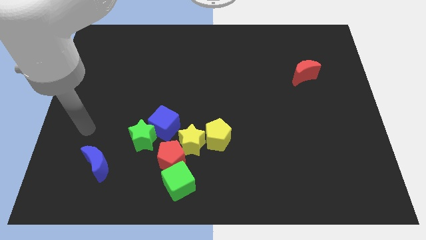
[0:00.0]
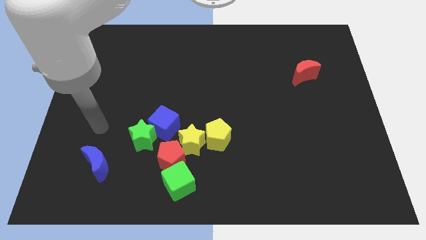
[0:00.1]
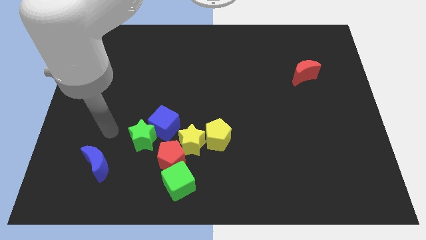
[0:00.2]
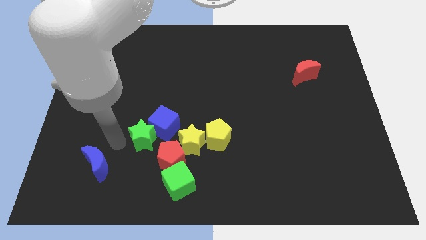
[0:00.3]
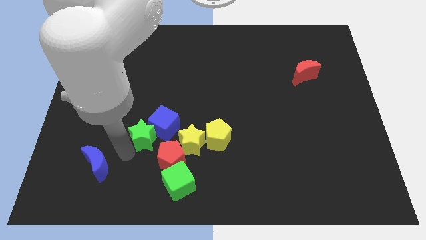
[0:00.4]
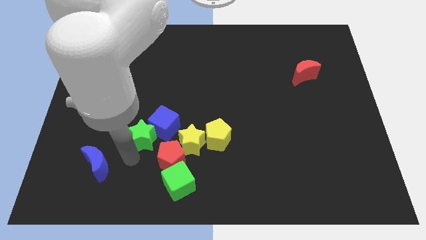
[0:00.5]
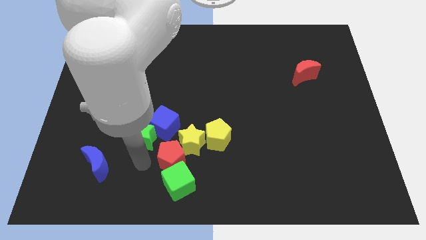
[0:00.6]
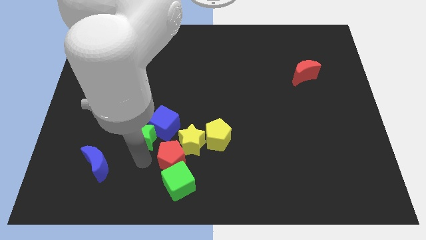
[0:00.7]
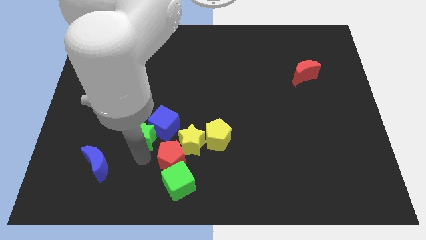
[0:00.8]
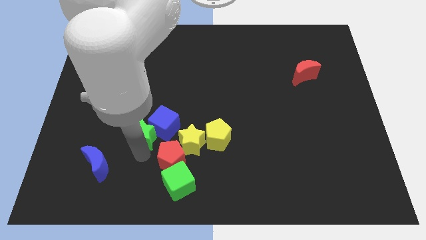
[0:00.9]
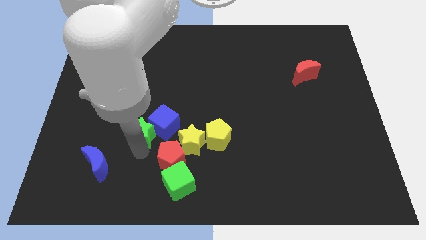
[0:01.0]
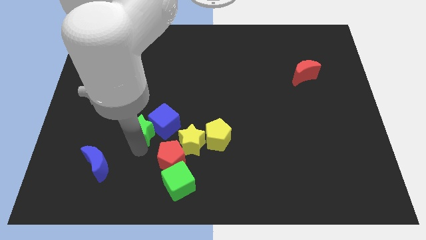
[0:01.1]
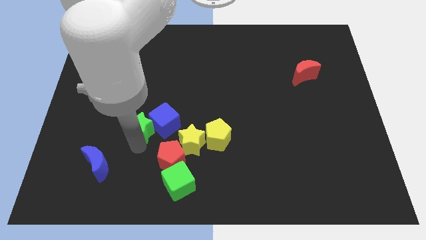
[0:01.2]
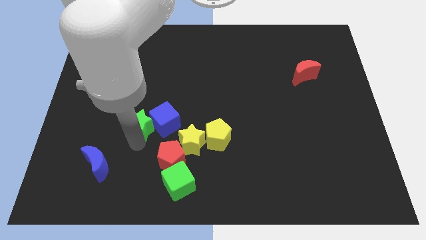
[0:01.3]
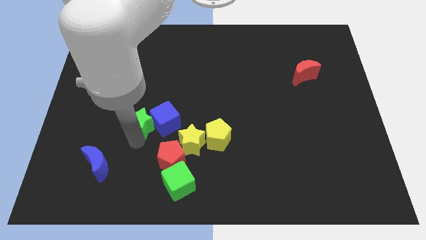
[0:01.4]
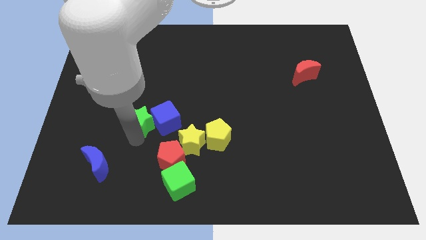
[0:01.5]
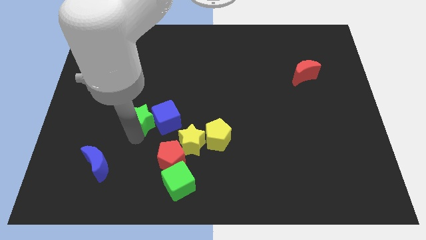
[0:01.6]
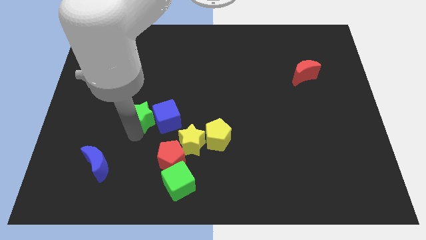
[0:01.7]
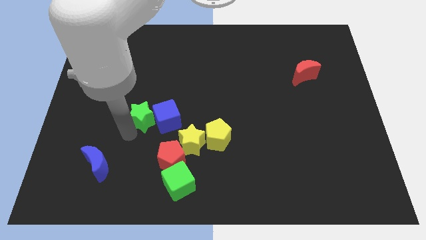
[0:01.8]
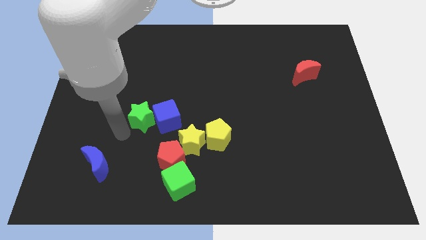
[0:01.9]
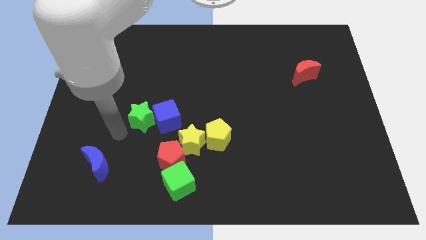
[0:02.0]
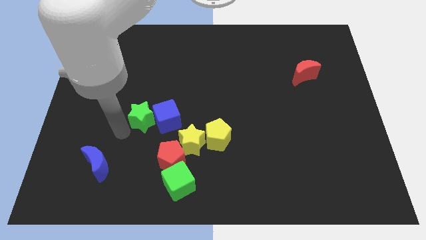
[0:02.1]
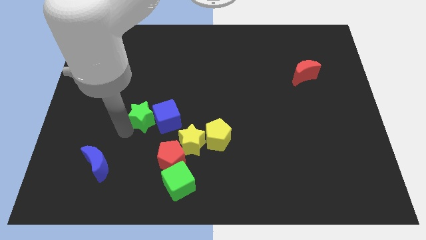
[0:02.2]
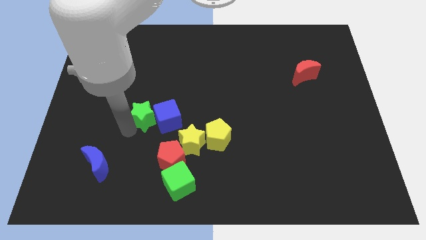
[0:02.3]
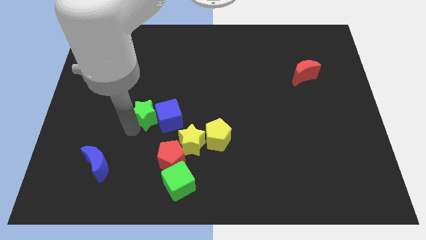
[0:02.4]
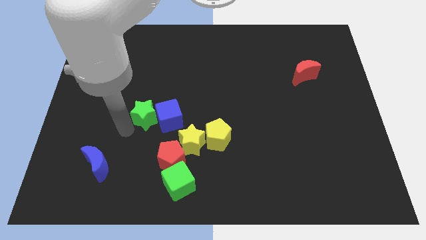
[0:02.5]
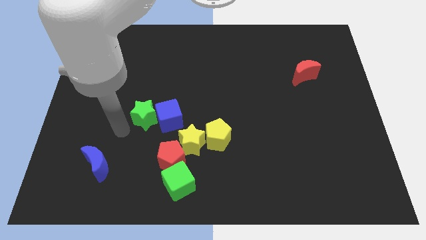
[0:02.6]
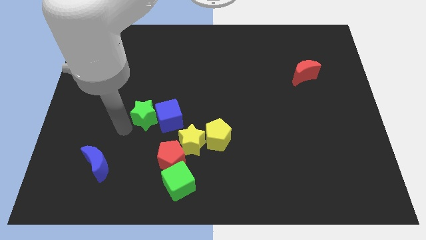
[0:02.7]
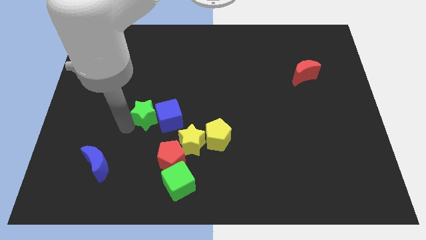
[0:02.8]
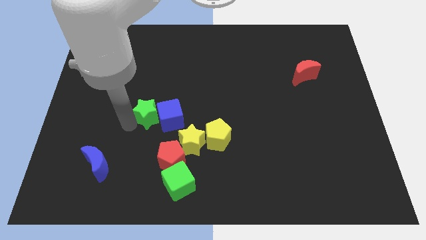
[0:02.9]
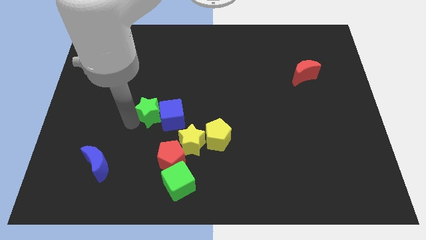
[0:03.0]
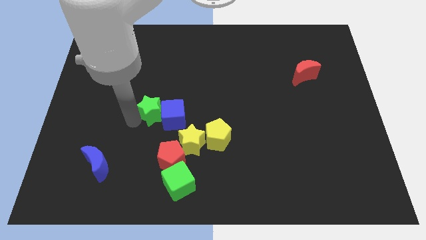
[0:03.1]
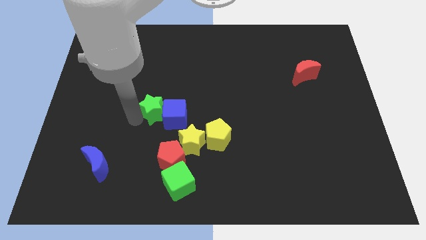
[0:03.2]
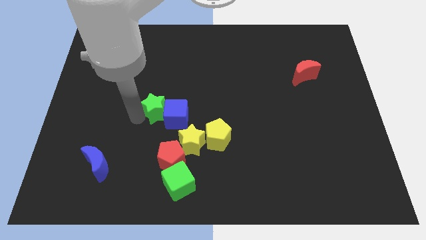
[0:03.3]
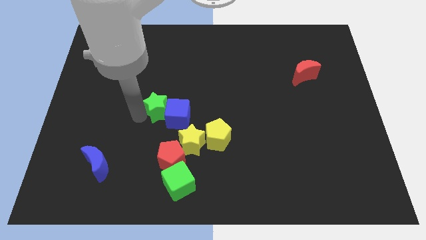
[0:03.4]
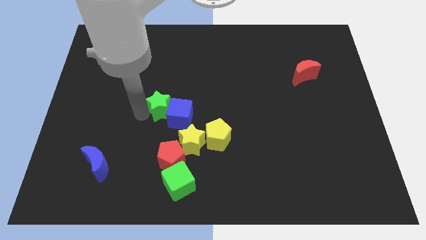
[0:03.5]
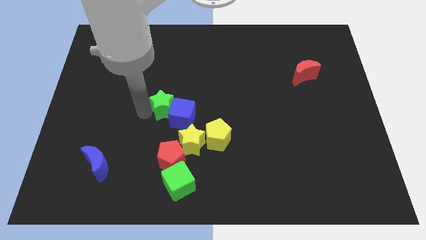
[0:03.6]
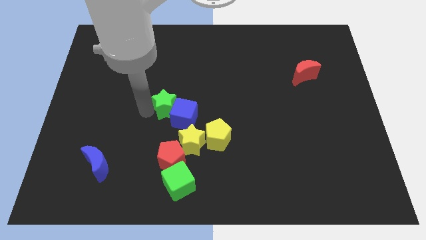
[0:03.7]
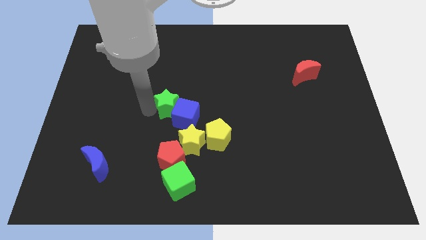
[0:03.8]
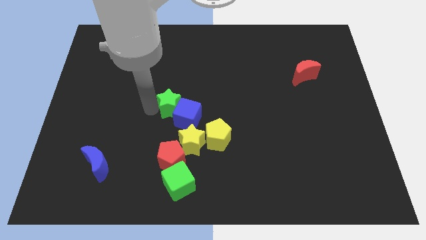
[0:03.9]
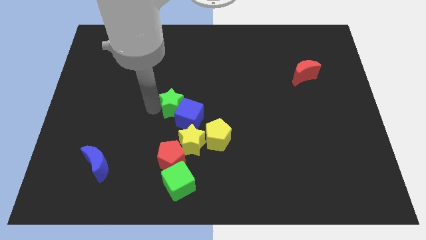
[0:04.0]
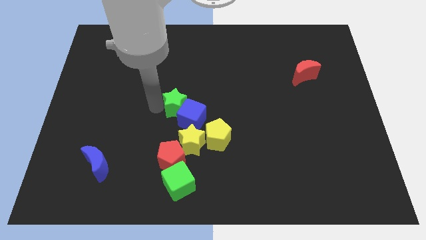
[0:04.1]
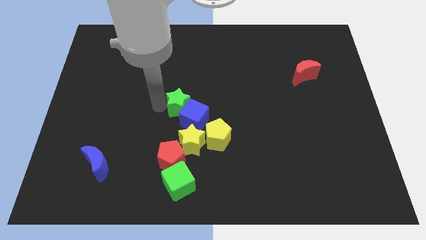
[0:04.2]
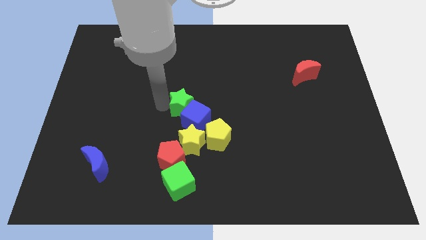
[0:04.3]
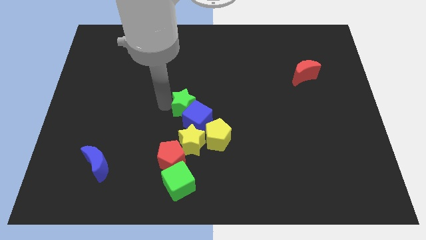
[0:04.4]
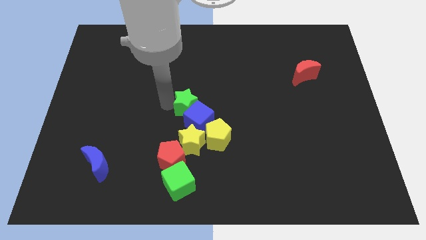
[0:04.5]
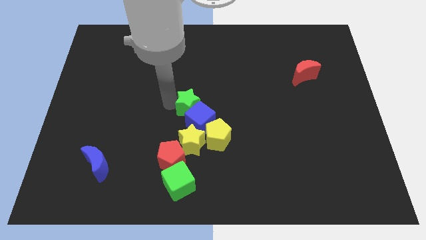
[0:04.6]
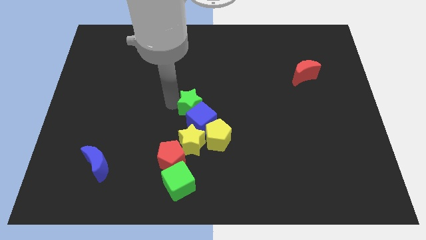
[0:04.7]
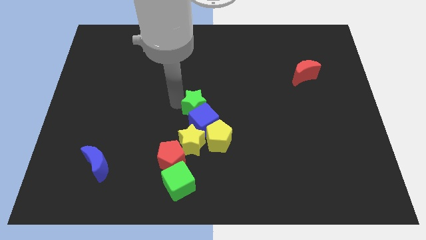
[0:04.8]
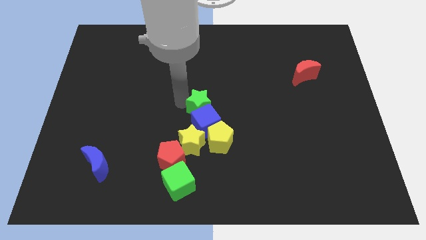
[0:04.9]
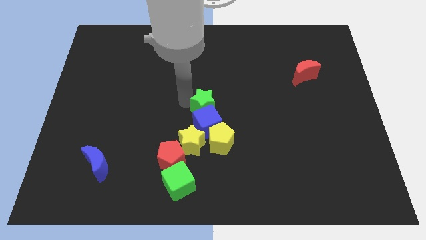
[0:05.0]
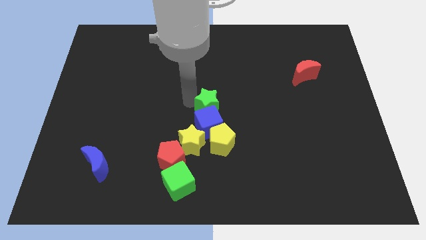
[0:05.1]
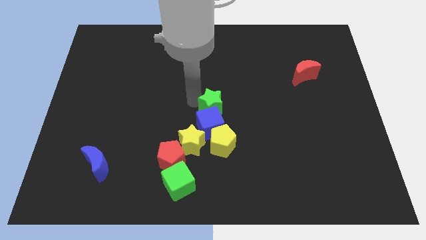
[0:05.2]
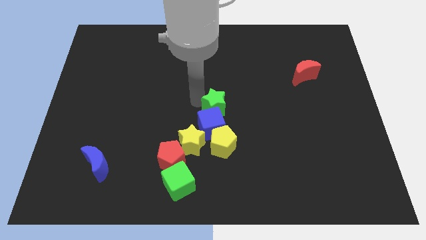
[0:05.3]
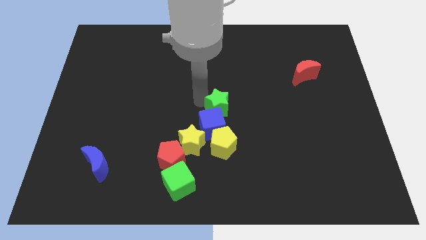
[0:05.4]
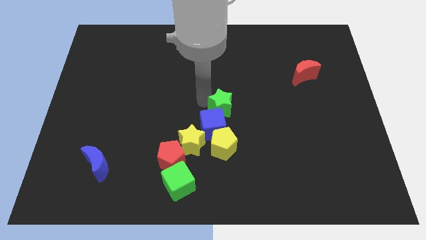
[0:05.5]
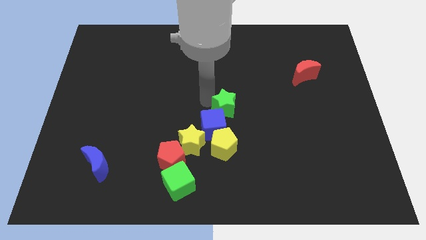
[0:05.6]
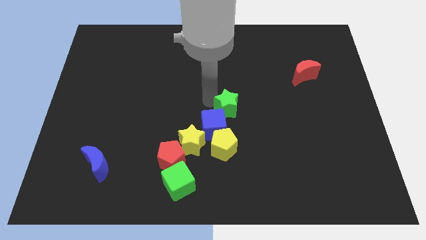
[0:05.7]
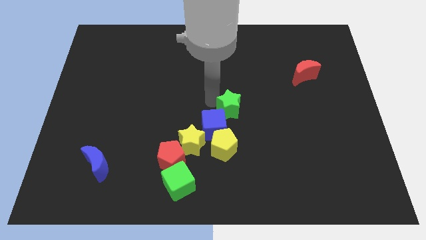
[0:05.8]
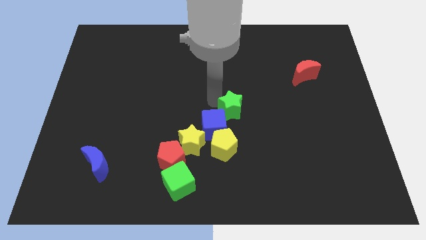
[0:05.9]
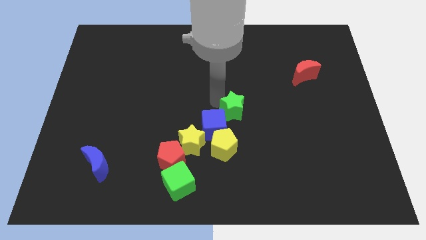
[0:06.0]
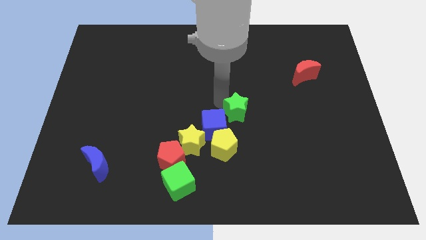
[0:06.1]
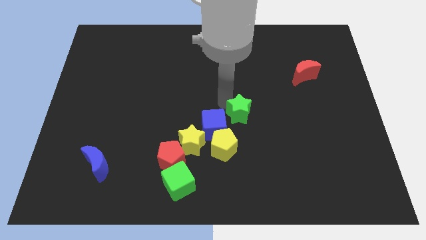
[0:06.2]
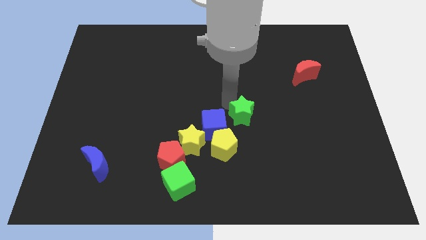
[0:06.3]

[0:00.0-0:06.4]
push the green star right

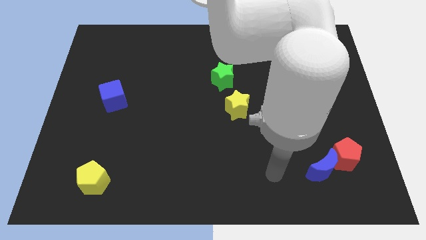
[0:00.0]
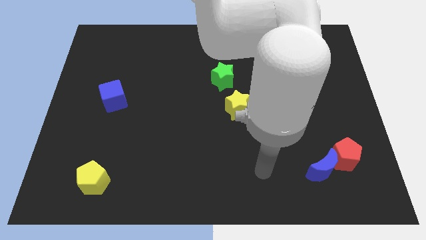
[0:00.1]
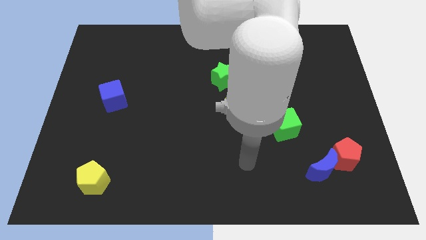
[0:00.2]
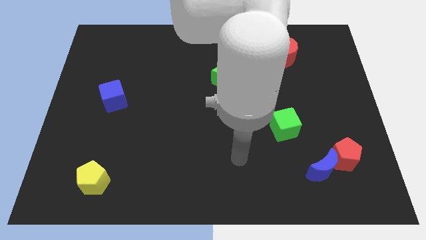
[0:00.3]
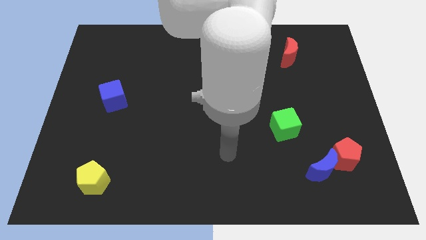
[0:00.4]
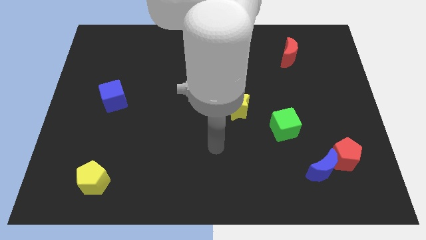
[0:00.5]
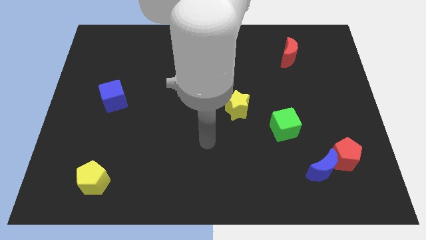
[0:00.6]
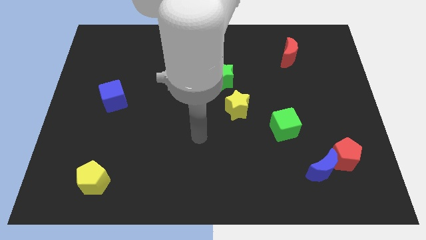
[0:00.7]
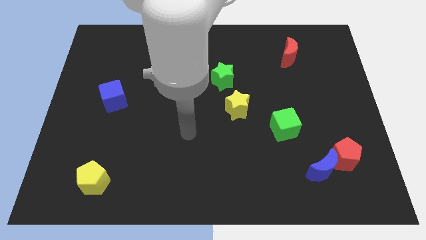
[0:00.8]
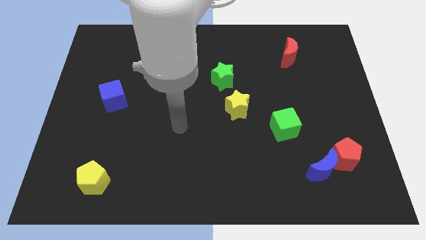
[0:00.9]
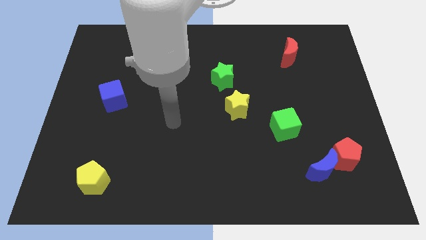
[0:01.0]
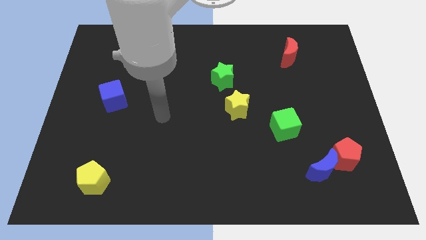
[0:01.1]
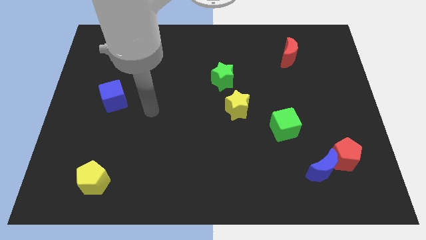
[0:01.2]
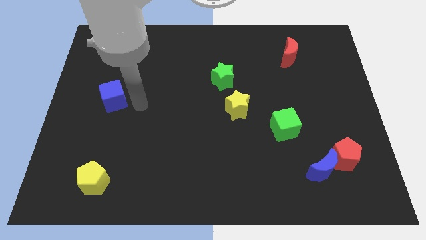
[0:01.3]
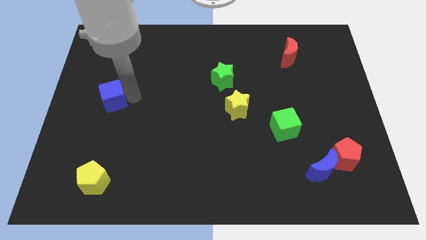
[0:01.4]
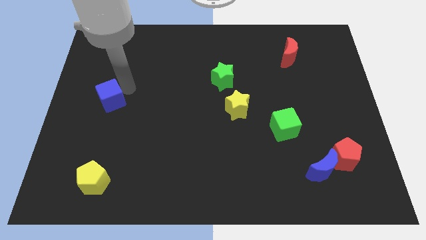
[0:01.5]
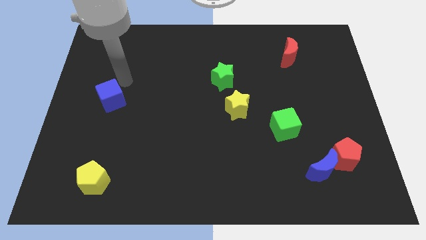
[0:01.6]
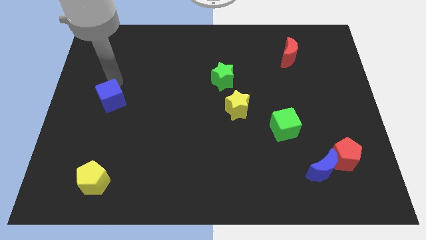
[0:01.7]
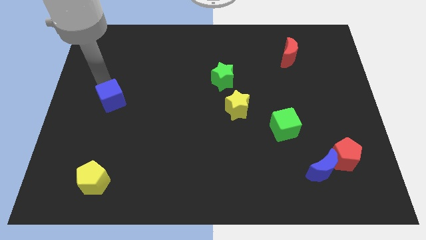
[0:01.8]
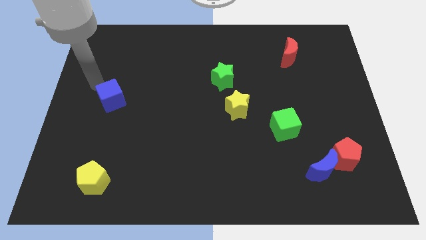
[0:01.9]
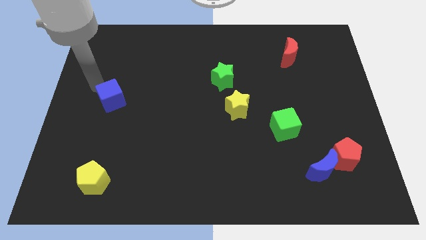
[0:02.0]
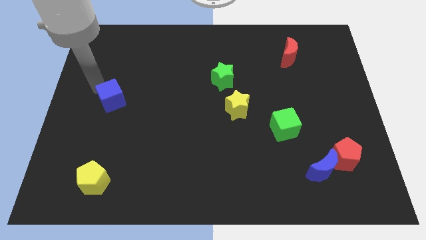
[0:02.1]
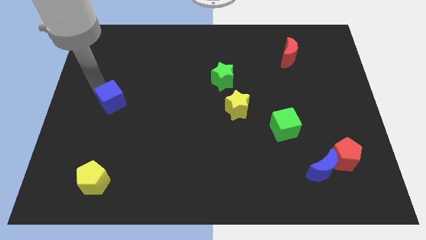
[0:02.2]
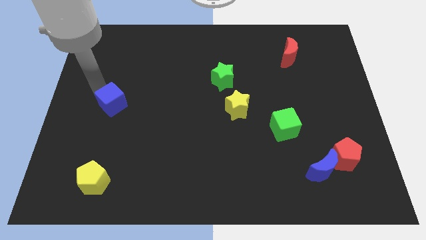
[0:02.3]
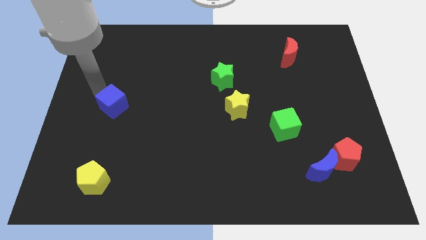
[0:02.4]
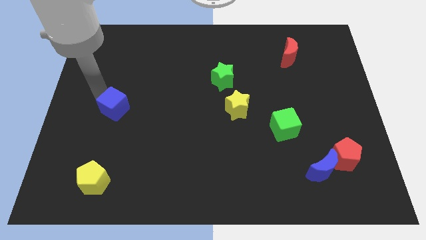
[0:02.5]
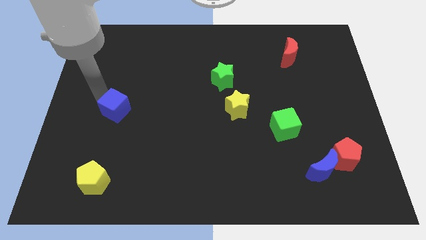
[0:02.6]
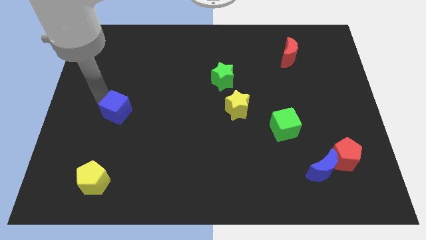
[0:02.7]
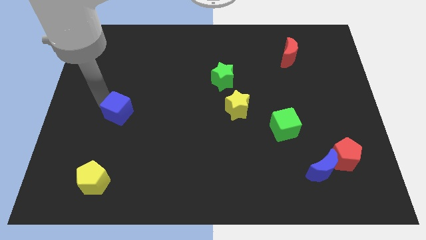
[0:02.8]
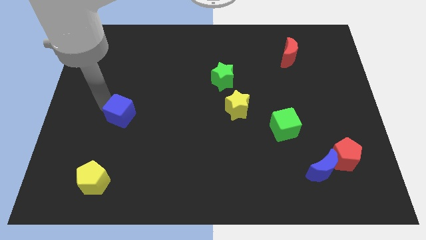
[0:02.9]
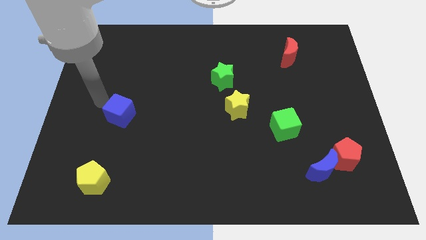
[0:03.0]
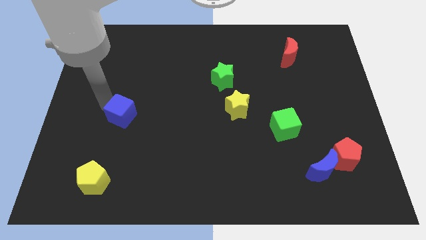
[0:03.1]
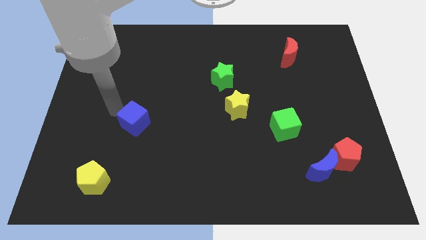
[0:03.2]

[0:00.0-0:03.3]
slide the blue cube a bit downwards and right diagonally
